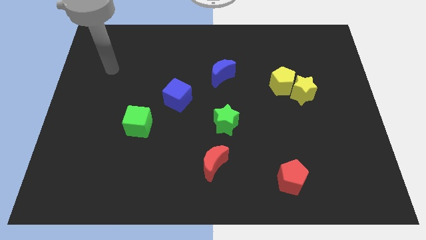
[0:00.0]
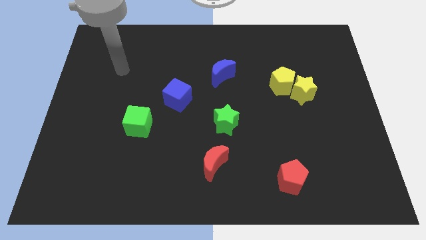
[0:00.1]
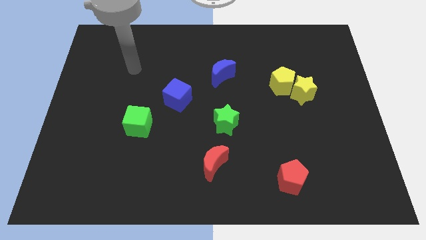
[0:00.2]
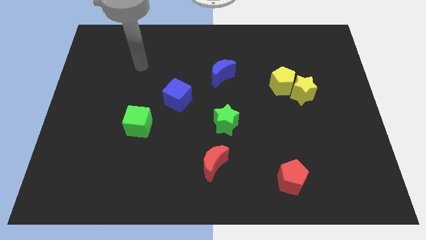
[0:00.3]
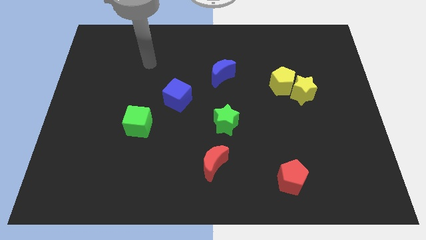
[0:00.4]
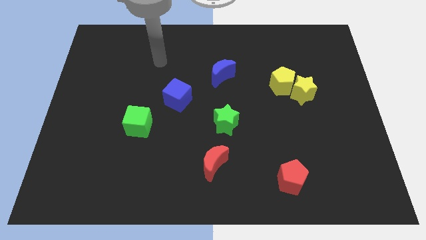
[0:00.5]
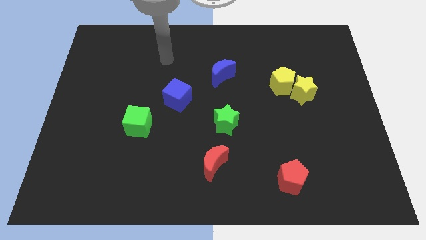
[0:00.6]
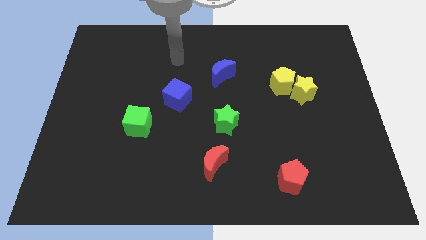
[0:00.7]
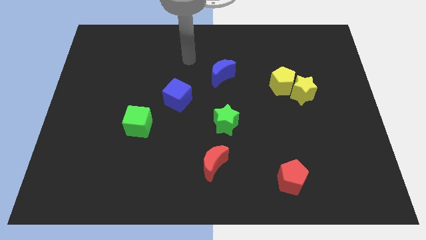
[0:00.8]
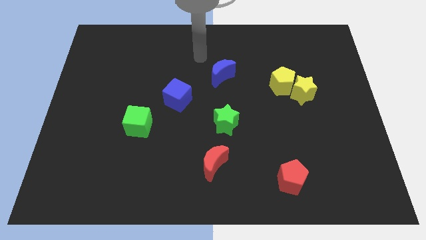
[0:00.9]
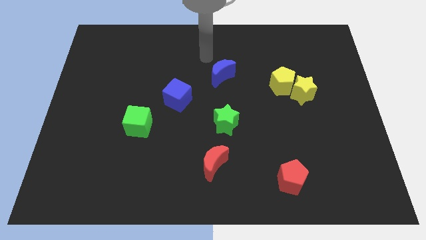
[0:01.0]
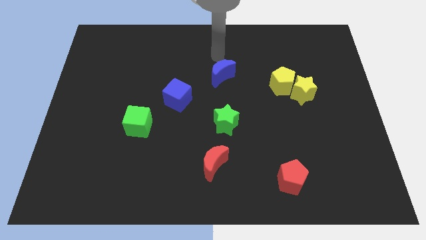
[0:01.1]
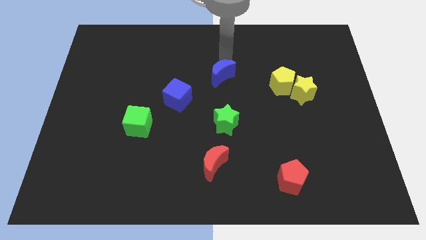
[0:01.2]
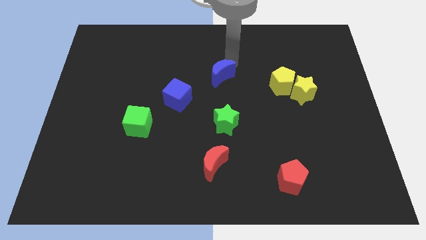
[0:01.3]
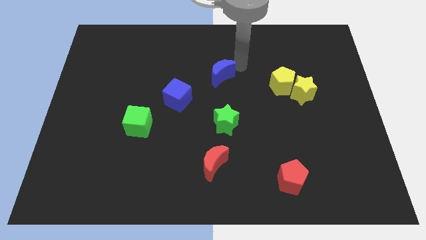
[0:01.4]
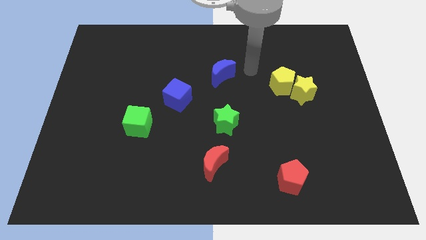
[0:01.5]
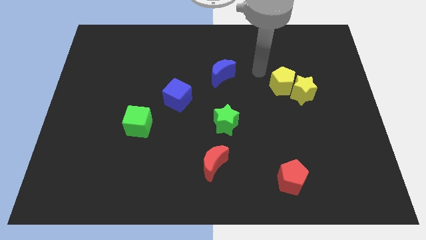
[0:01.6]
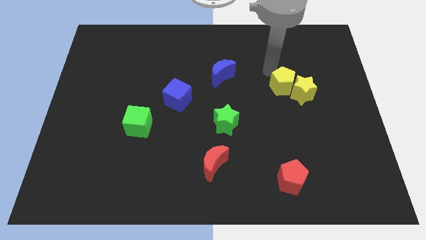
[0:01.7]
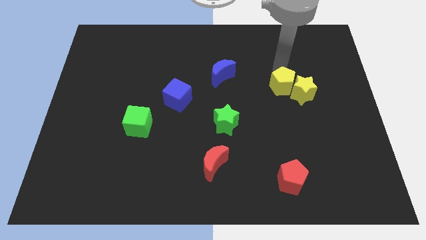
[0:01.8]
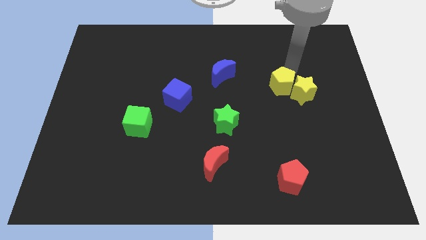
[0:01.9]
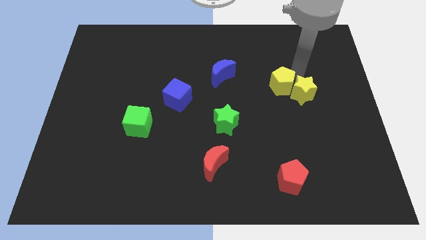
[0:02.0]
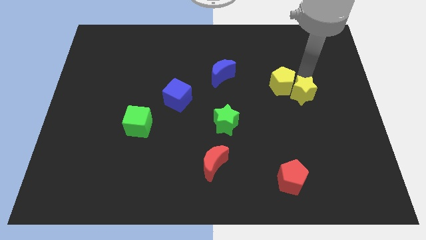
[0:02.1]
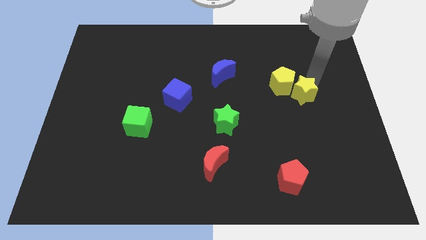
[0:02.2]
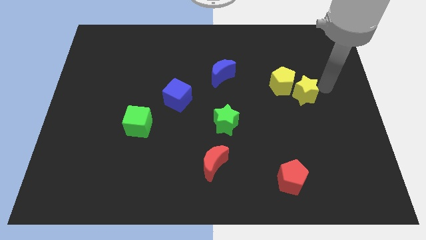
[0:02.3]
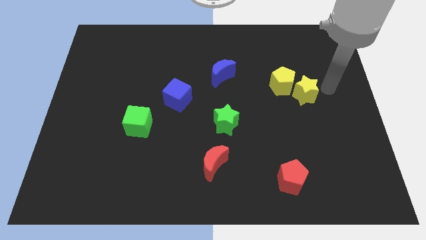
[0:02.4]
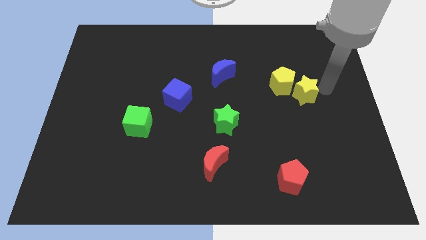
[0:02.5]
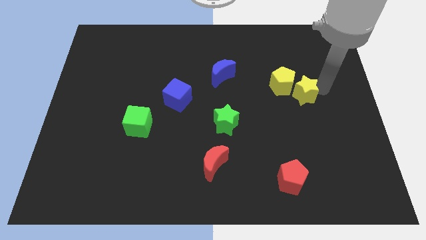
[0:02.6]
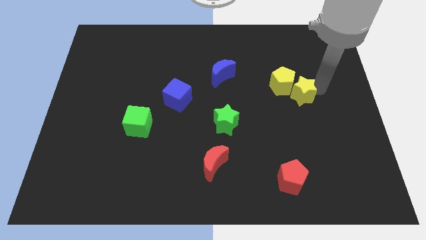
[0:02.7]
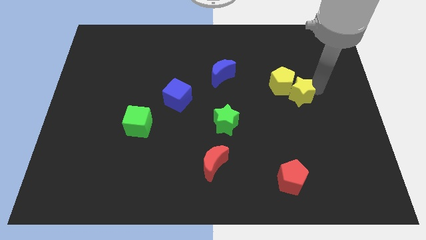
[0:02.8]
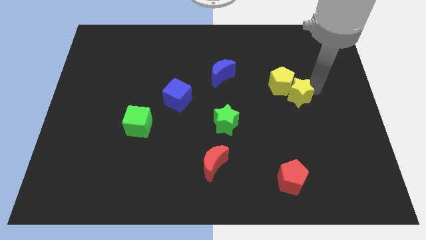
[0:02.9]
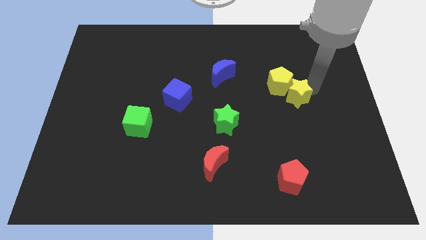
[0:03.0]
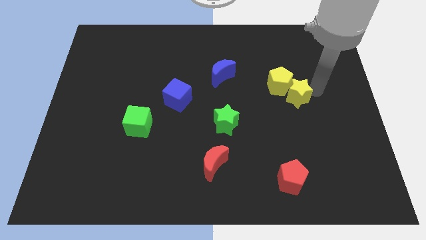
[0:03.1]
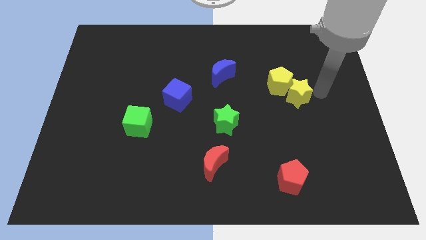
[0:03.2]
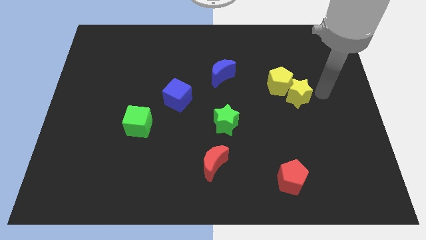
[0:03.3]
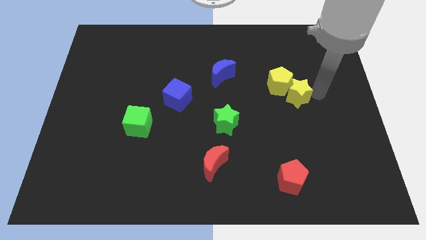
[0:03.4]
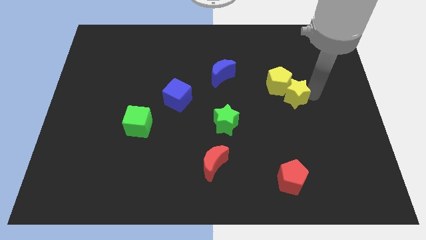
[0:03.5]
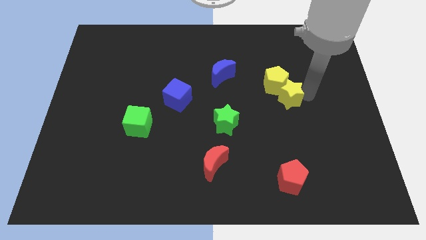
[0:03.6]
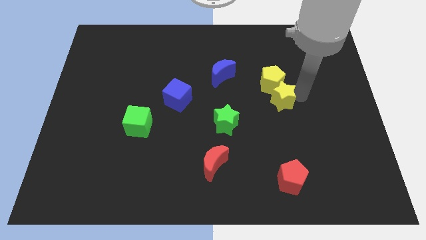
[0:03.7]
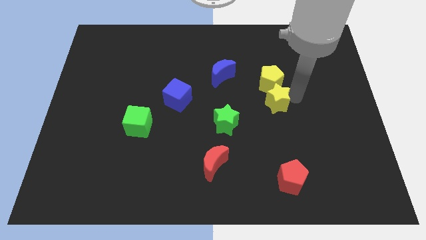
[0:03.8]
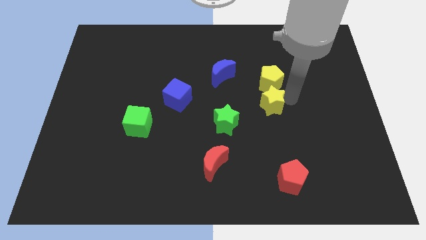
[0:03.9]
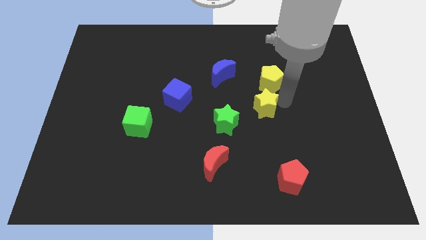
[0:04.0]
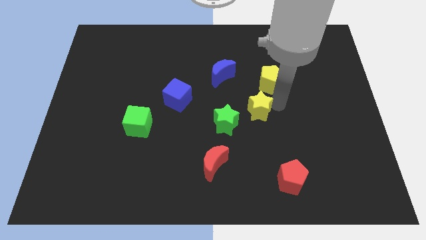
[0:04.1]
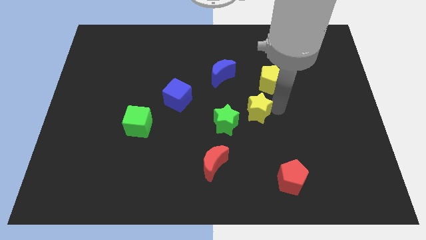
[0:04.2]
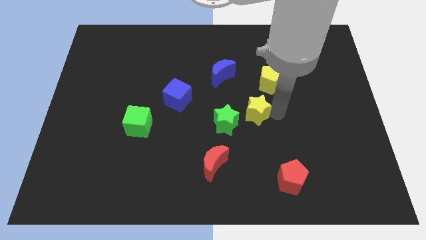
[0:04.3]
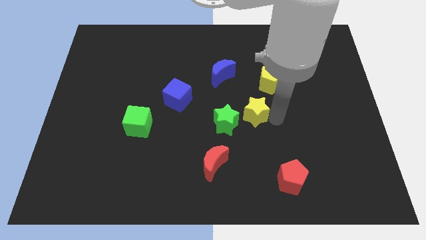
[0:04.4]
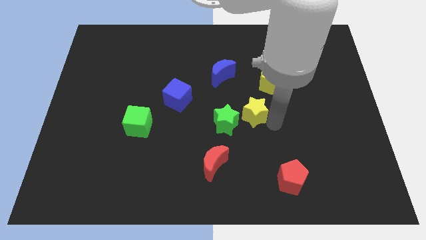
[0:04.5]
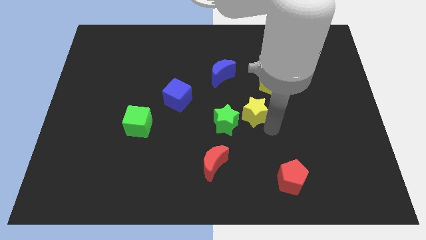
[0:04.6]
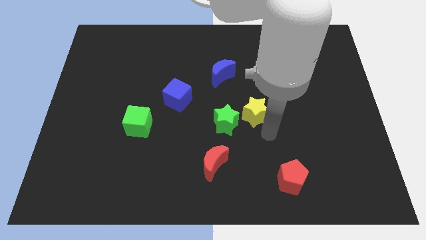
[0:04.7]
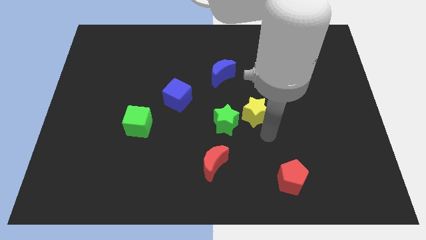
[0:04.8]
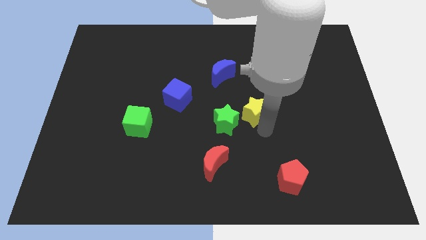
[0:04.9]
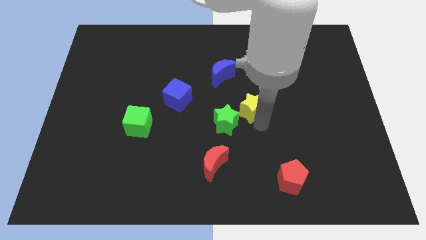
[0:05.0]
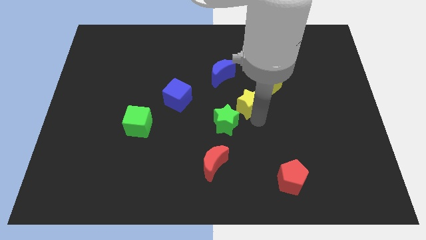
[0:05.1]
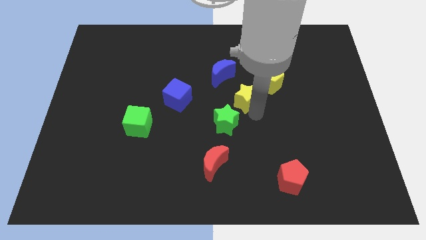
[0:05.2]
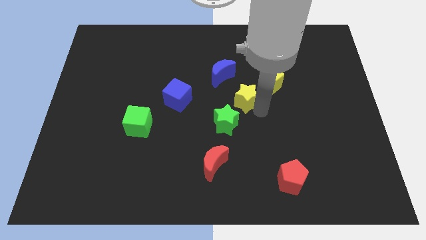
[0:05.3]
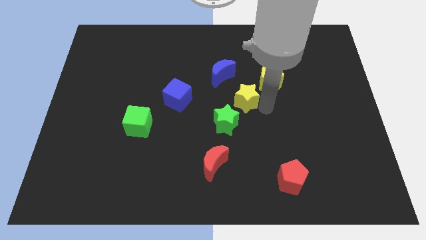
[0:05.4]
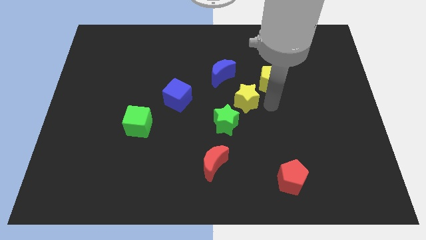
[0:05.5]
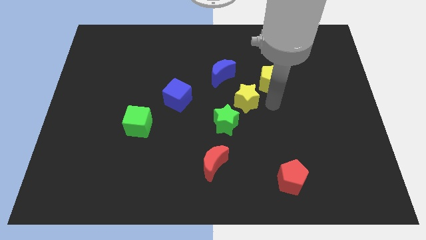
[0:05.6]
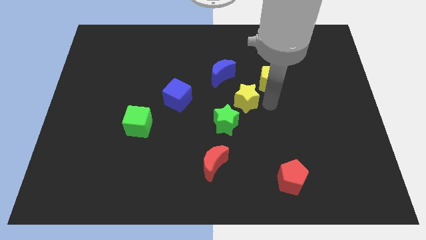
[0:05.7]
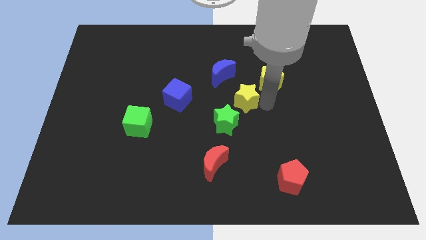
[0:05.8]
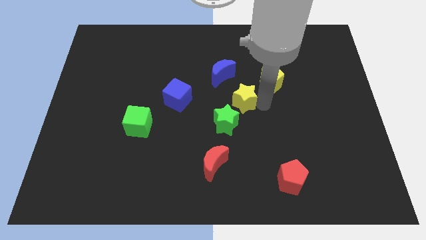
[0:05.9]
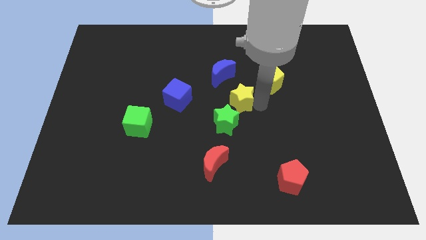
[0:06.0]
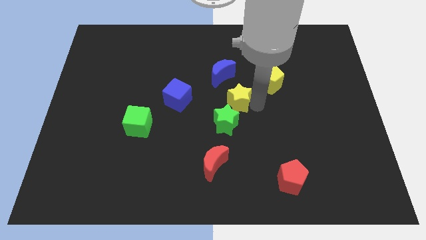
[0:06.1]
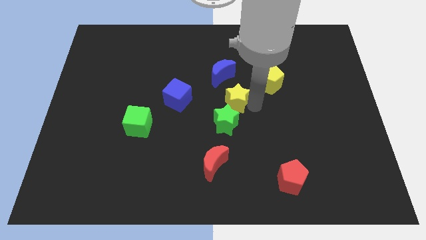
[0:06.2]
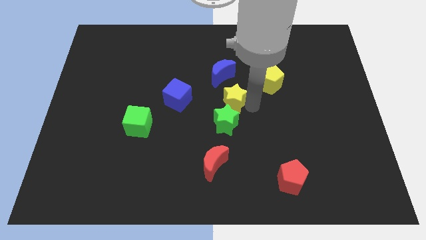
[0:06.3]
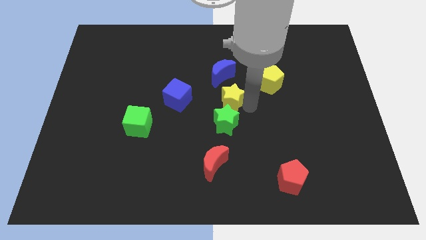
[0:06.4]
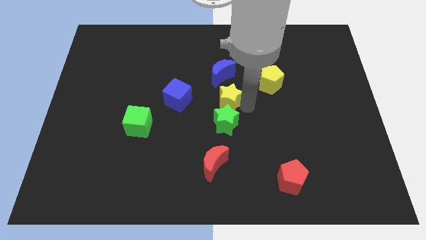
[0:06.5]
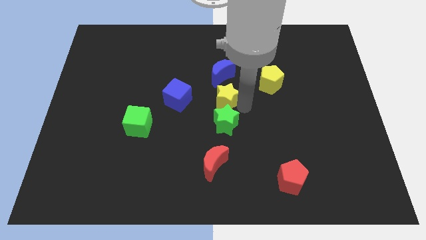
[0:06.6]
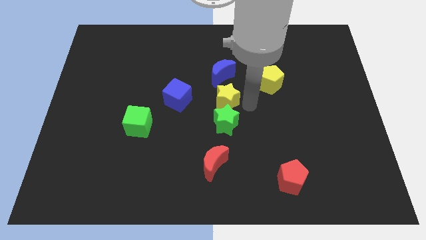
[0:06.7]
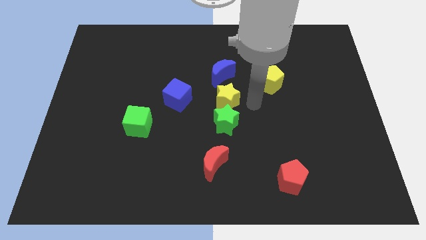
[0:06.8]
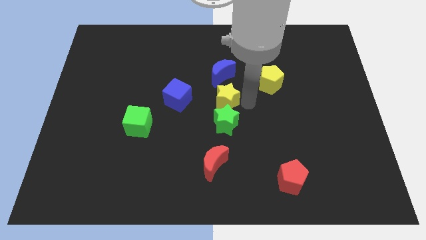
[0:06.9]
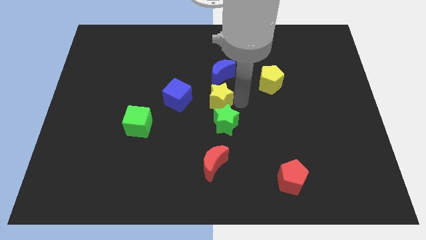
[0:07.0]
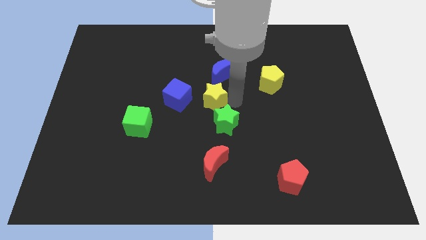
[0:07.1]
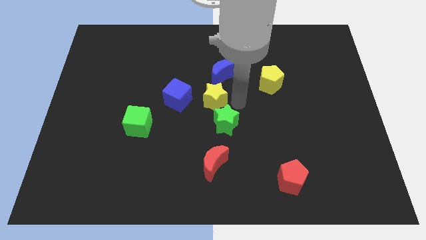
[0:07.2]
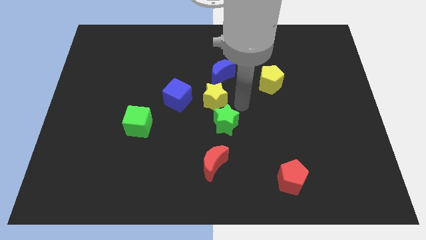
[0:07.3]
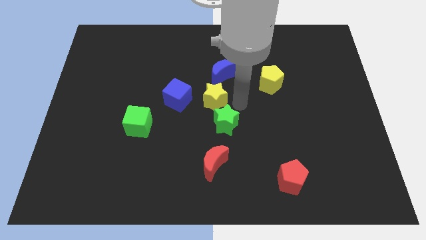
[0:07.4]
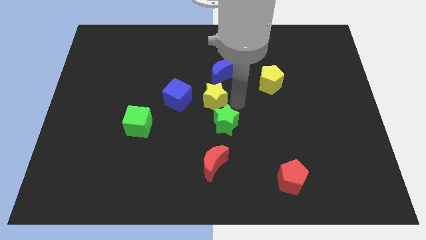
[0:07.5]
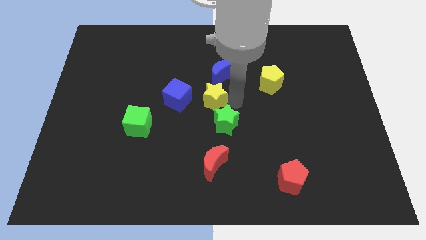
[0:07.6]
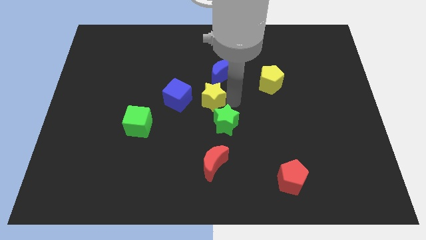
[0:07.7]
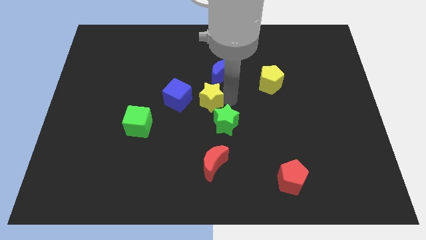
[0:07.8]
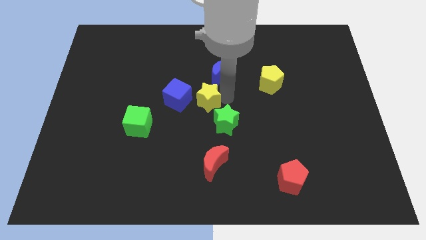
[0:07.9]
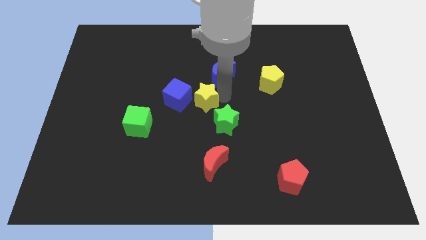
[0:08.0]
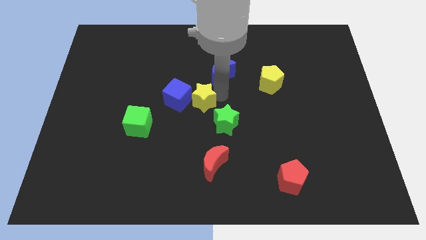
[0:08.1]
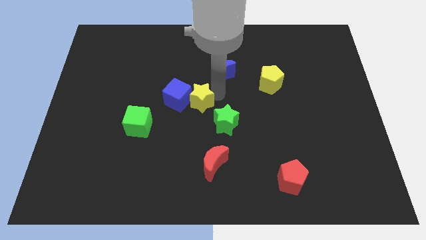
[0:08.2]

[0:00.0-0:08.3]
put the yellow star towards the blue cube
